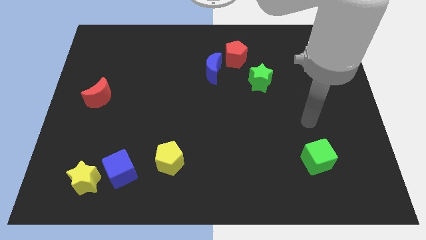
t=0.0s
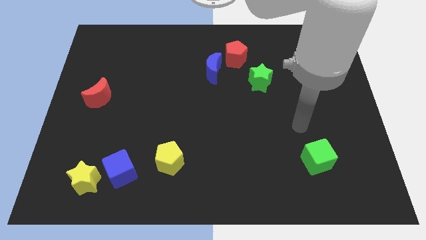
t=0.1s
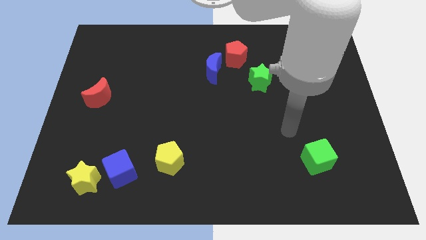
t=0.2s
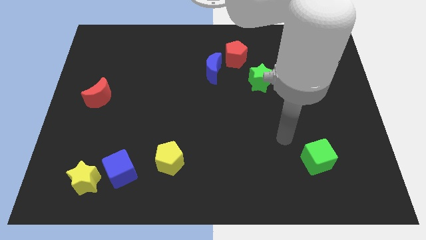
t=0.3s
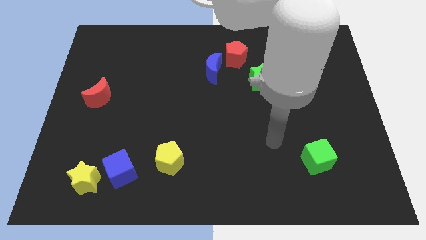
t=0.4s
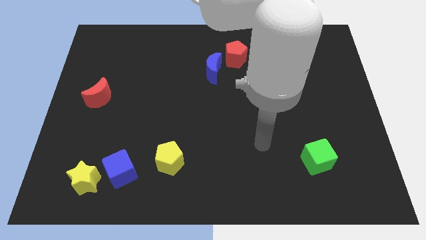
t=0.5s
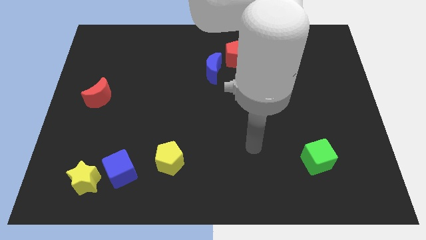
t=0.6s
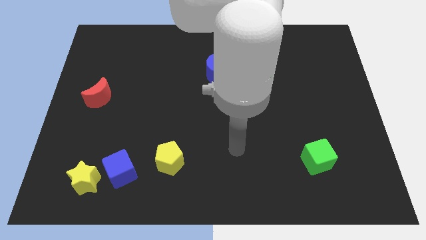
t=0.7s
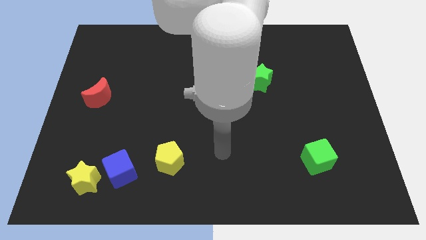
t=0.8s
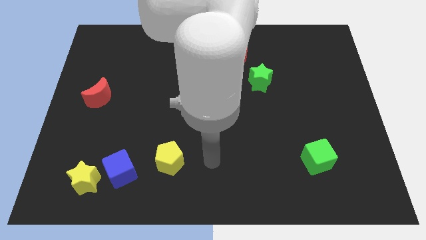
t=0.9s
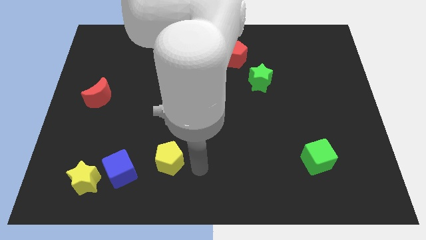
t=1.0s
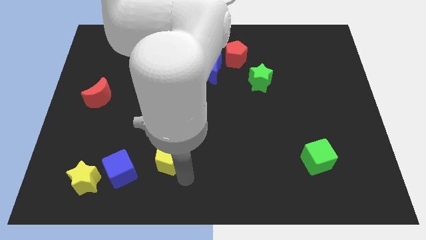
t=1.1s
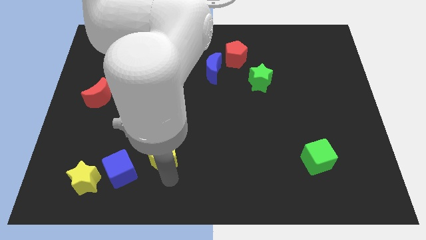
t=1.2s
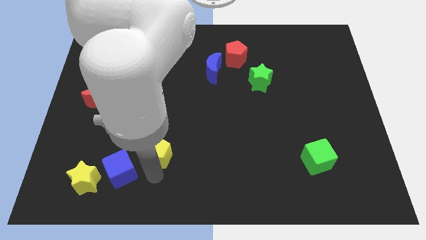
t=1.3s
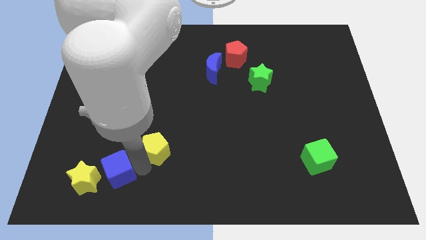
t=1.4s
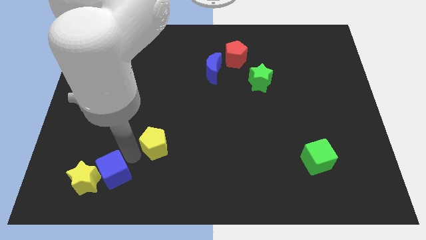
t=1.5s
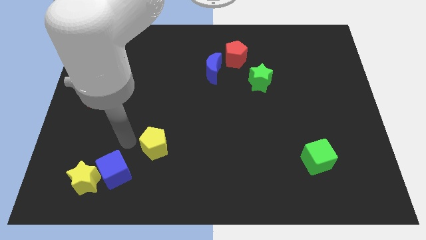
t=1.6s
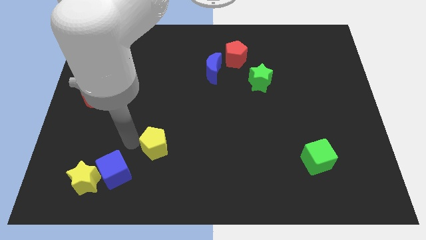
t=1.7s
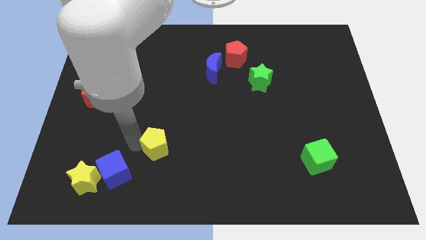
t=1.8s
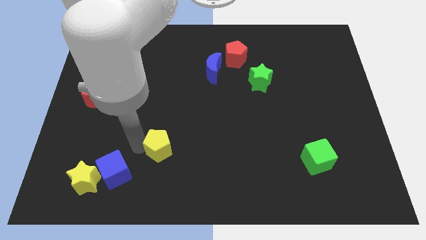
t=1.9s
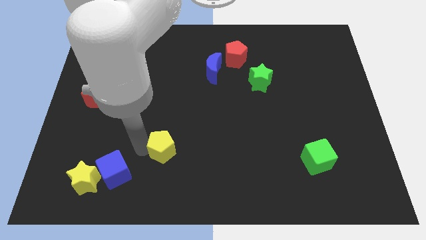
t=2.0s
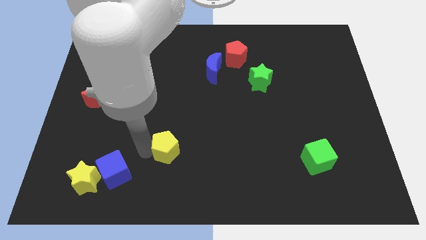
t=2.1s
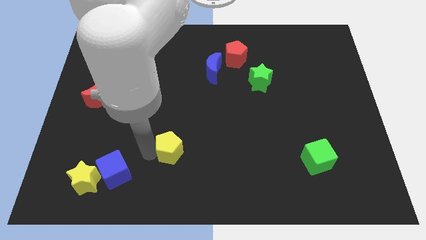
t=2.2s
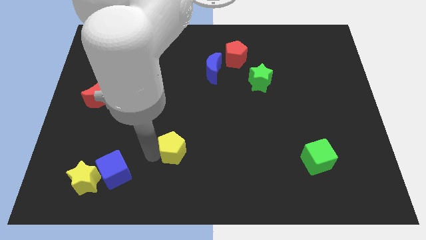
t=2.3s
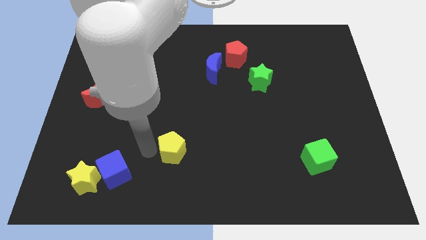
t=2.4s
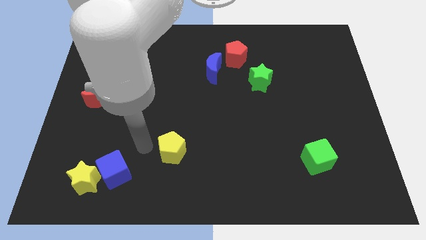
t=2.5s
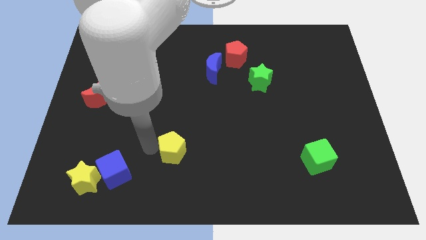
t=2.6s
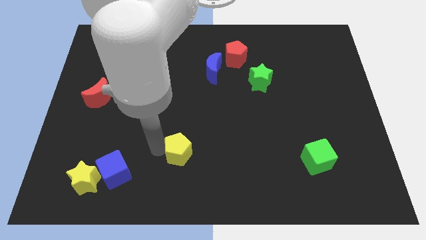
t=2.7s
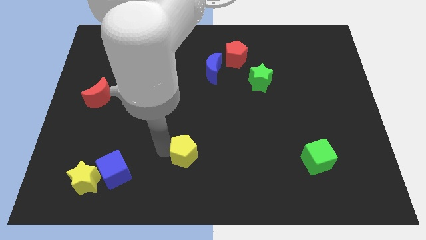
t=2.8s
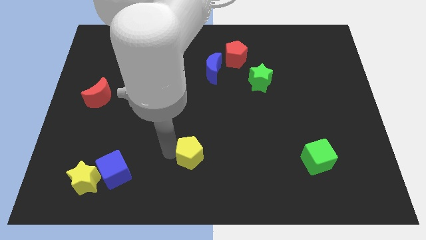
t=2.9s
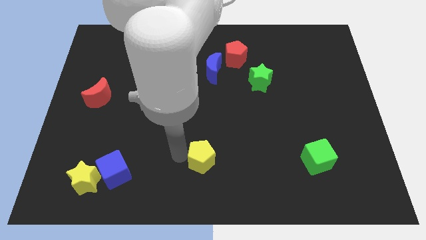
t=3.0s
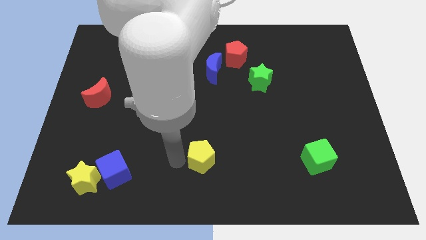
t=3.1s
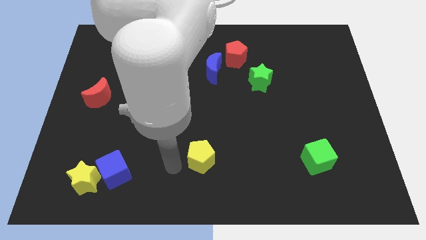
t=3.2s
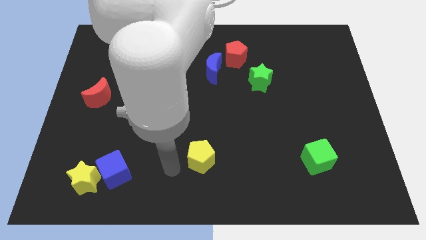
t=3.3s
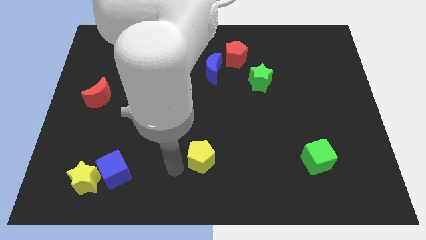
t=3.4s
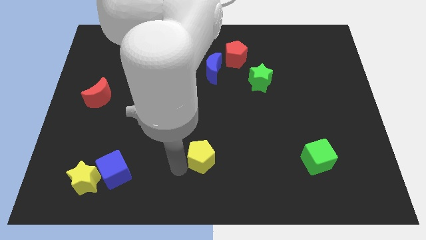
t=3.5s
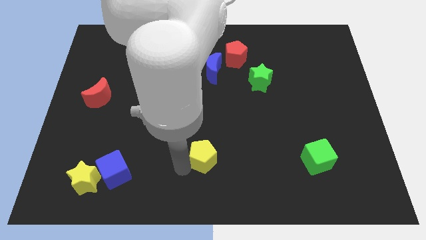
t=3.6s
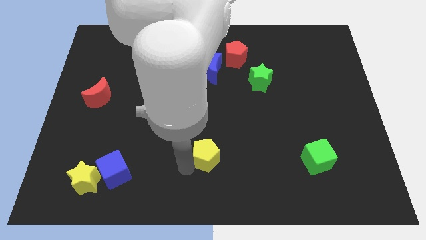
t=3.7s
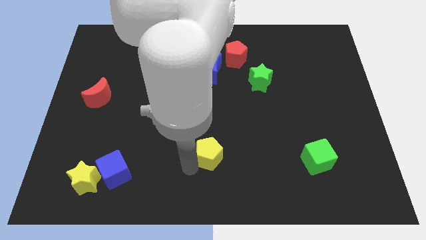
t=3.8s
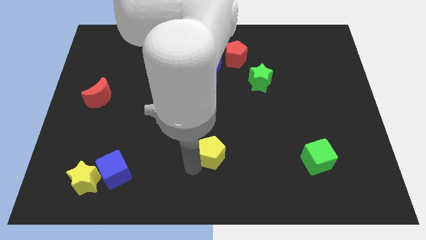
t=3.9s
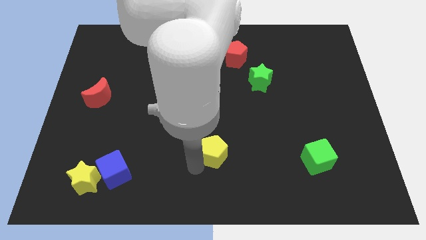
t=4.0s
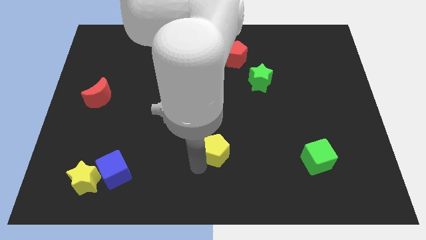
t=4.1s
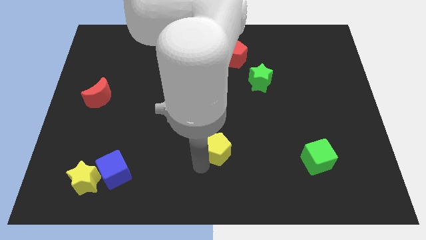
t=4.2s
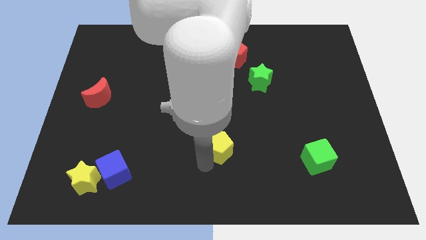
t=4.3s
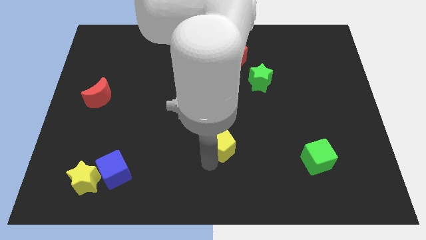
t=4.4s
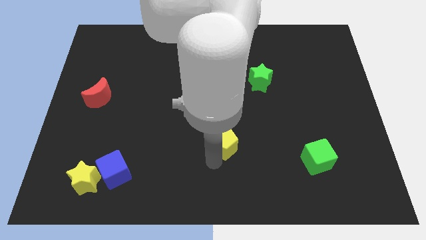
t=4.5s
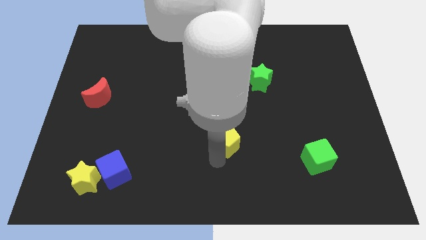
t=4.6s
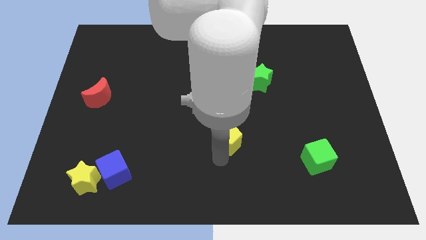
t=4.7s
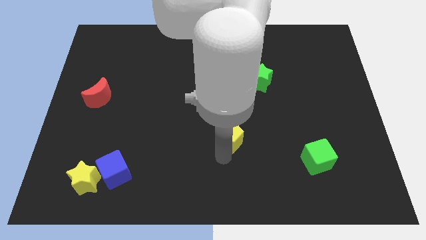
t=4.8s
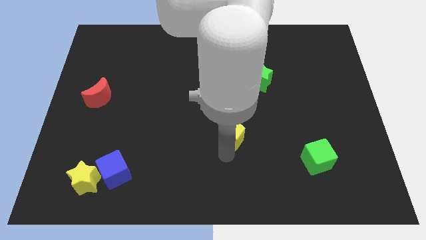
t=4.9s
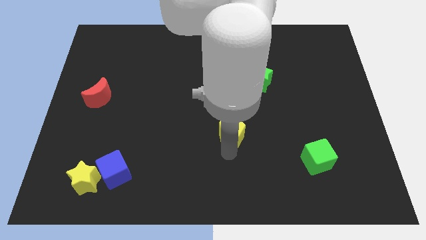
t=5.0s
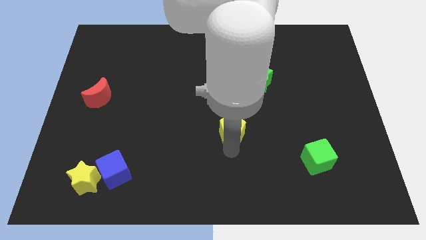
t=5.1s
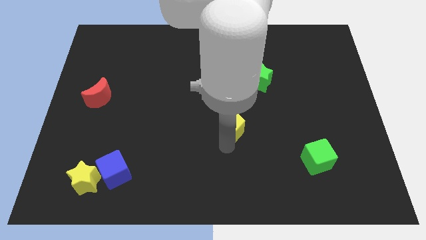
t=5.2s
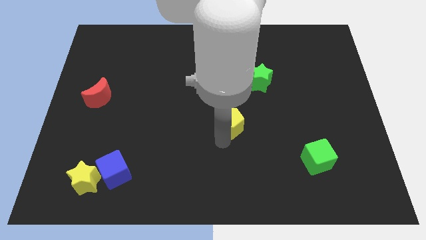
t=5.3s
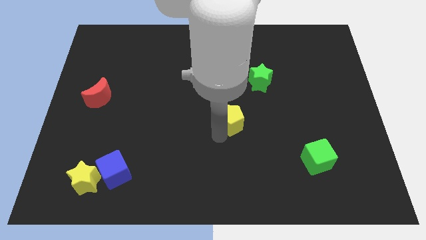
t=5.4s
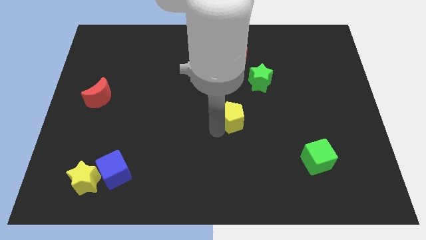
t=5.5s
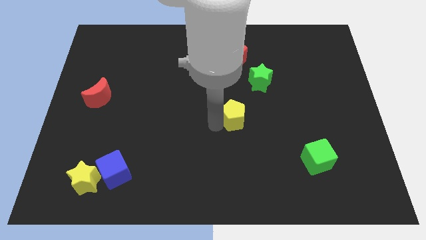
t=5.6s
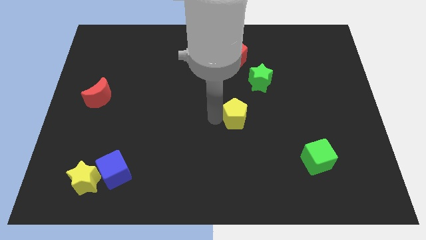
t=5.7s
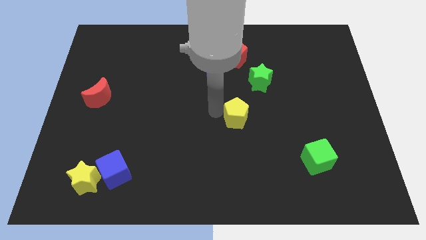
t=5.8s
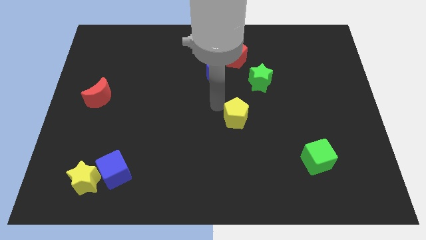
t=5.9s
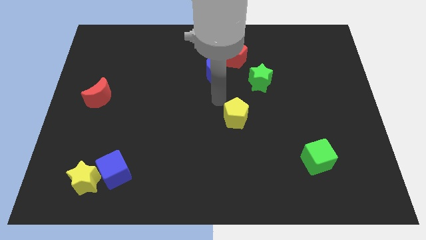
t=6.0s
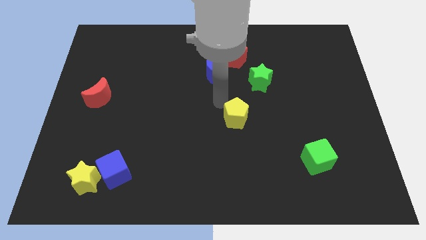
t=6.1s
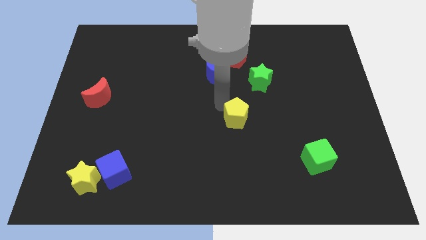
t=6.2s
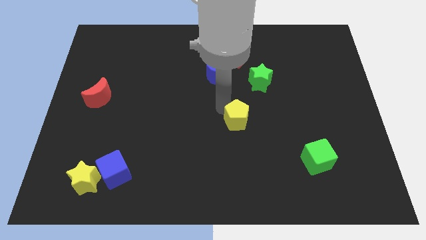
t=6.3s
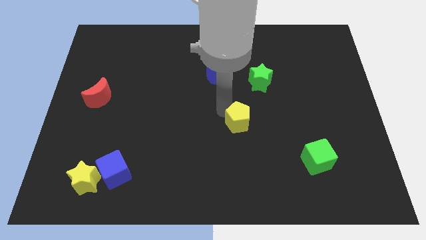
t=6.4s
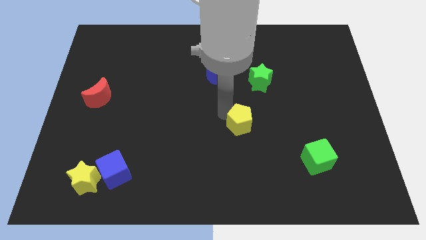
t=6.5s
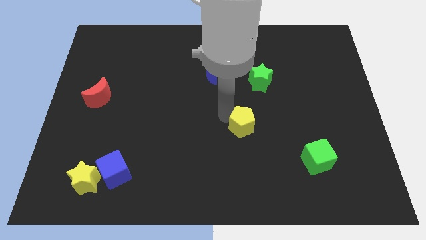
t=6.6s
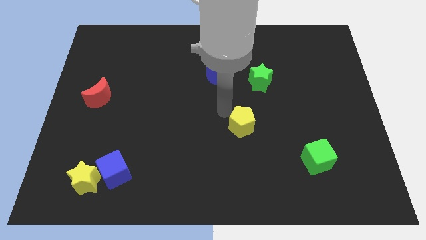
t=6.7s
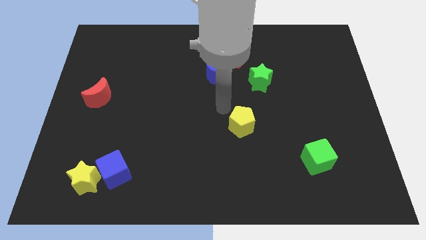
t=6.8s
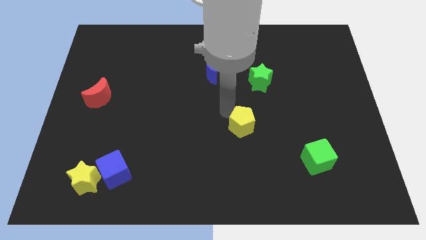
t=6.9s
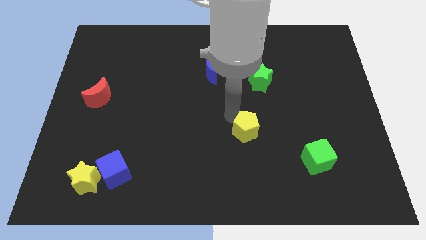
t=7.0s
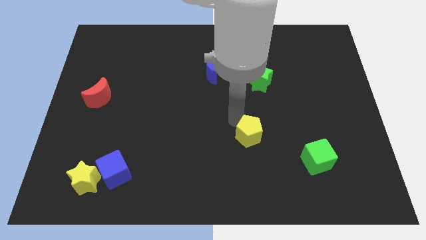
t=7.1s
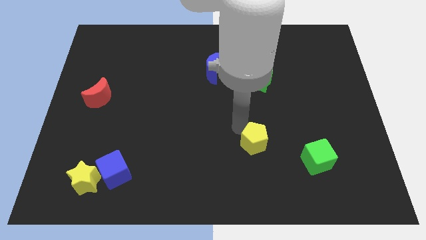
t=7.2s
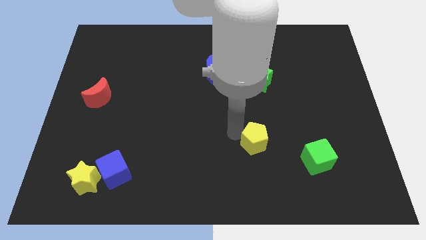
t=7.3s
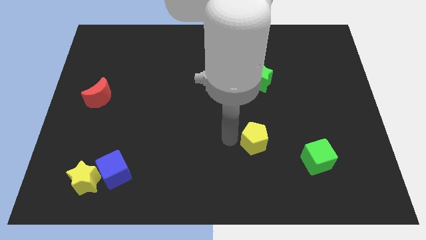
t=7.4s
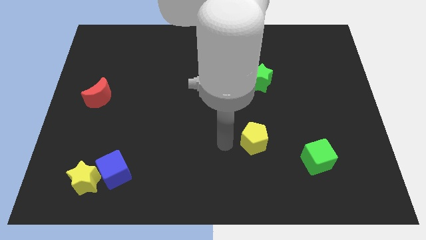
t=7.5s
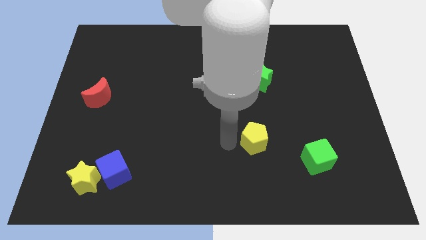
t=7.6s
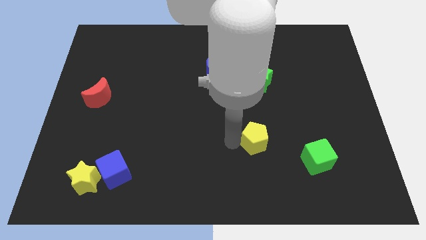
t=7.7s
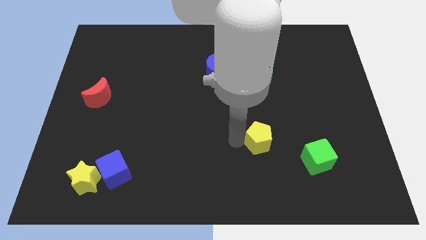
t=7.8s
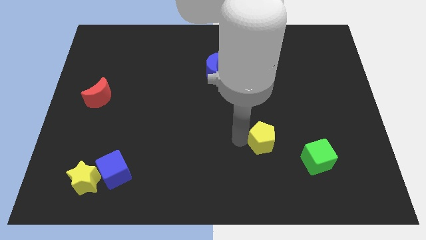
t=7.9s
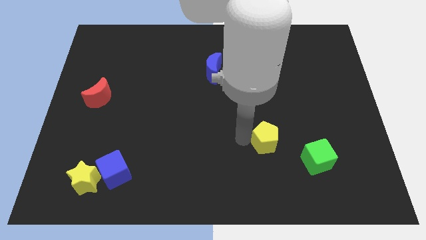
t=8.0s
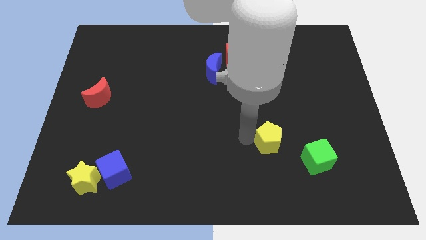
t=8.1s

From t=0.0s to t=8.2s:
move the yellow pentagon to the top left side of the green cube
